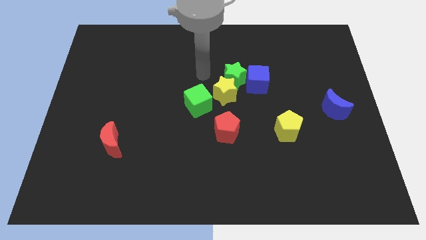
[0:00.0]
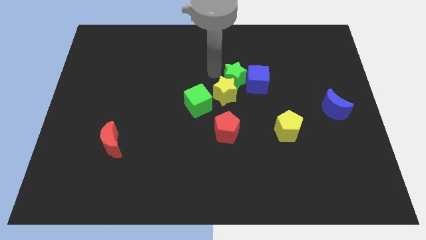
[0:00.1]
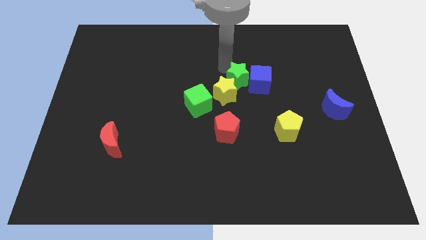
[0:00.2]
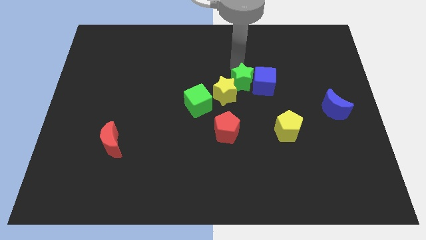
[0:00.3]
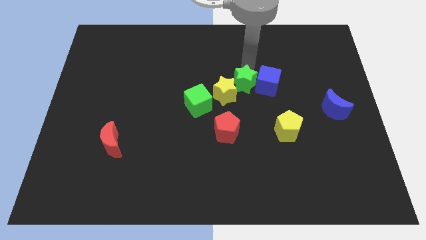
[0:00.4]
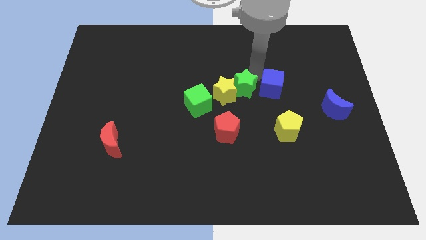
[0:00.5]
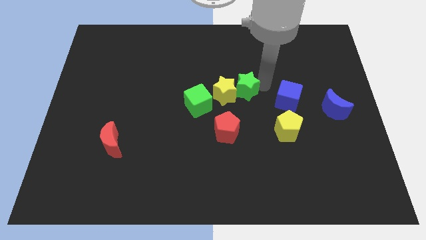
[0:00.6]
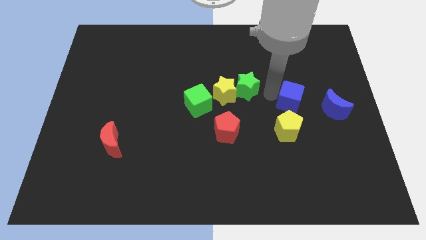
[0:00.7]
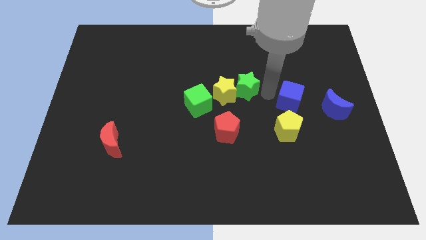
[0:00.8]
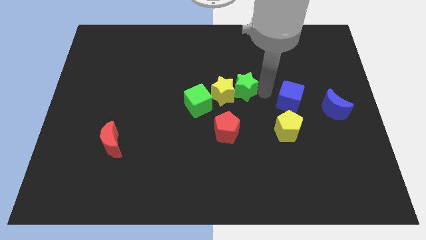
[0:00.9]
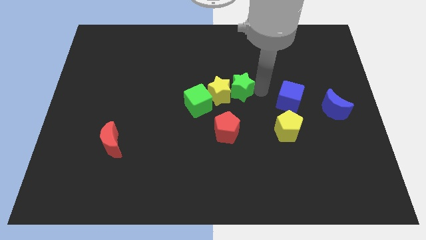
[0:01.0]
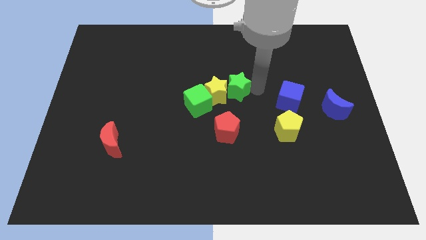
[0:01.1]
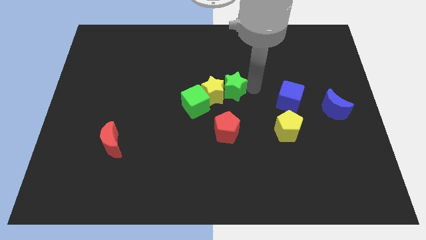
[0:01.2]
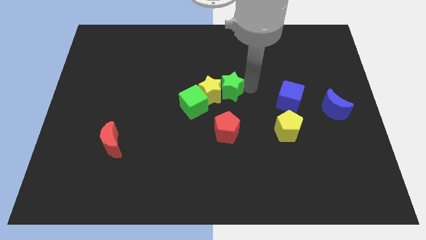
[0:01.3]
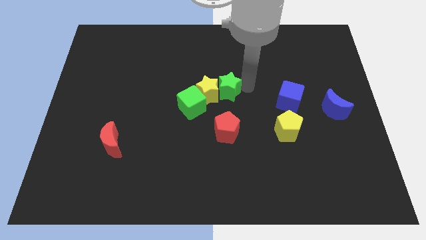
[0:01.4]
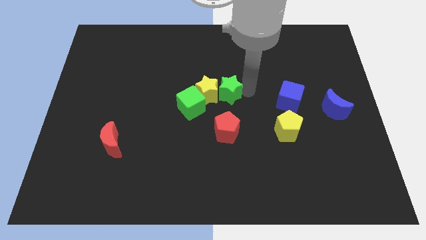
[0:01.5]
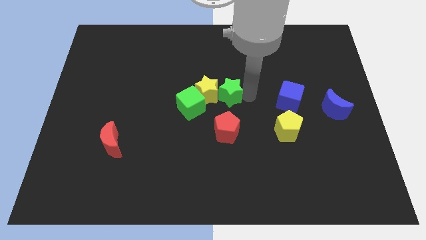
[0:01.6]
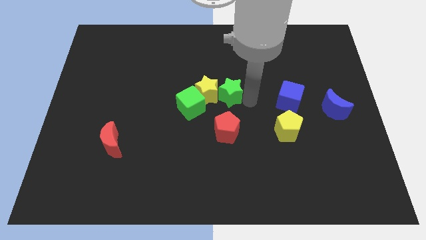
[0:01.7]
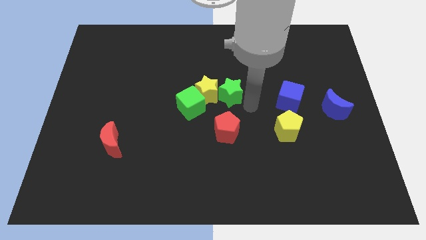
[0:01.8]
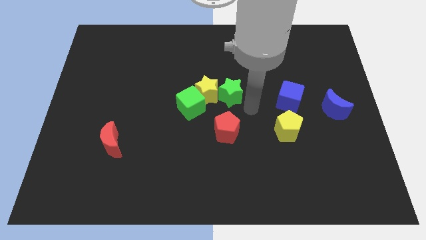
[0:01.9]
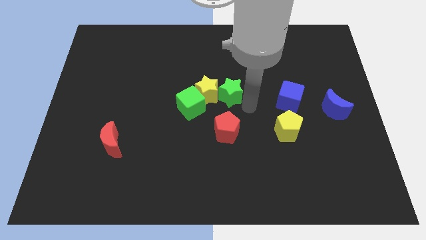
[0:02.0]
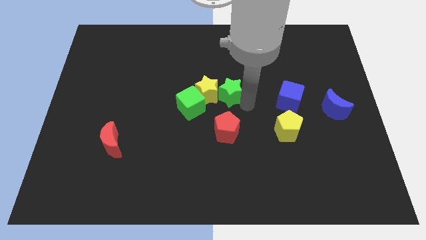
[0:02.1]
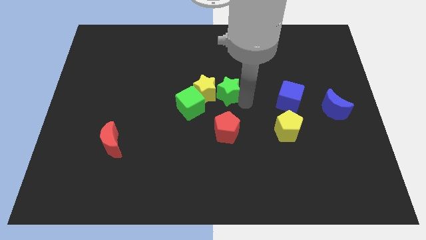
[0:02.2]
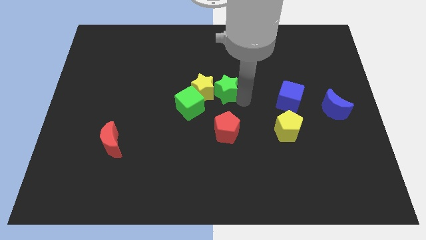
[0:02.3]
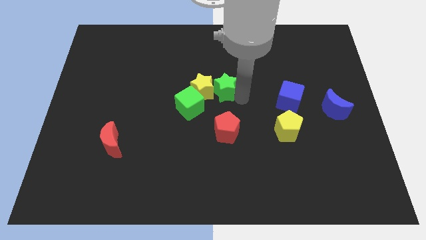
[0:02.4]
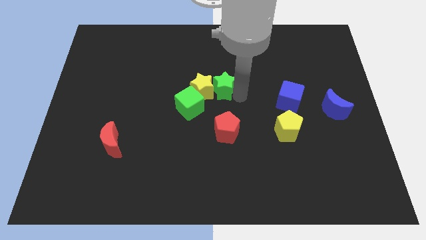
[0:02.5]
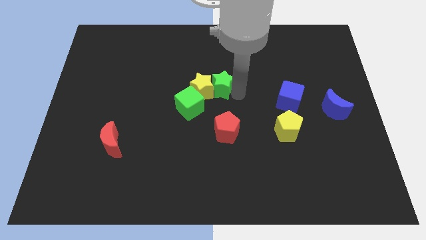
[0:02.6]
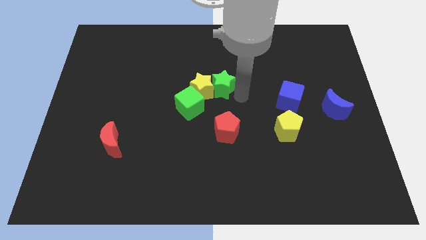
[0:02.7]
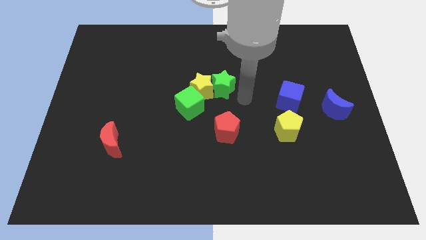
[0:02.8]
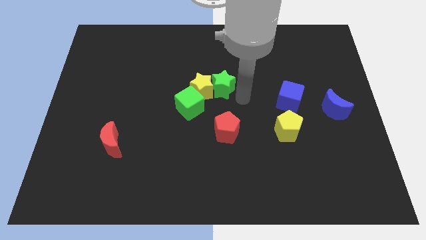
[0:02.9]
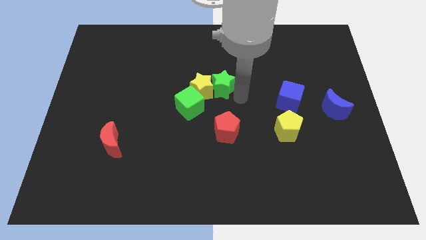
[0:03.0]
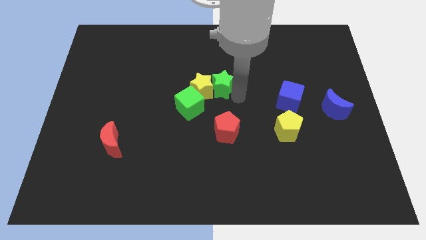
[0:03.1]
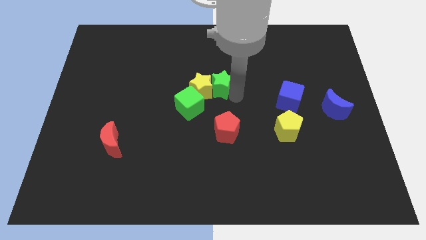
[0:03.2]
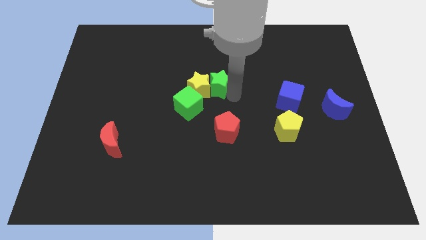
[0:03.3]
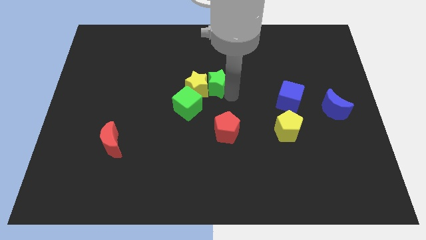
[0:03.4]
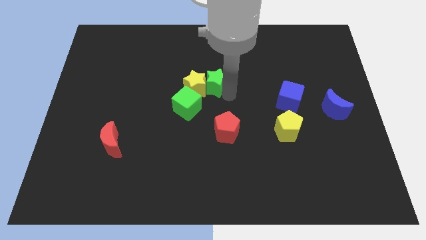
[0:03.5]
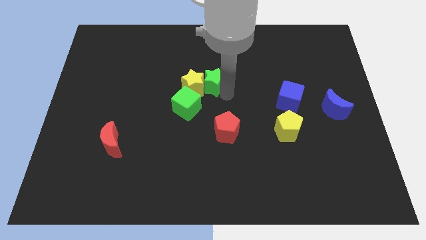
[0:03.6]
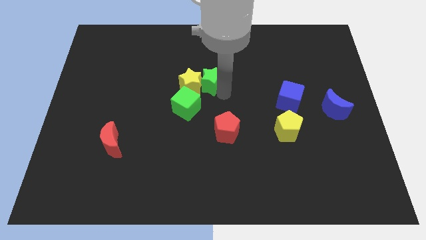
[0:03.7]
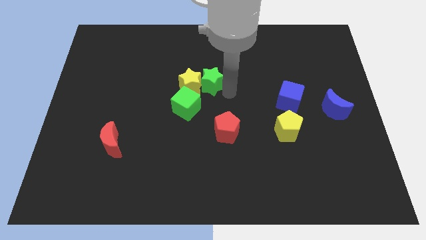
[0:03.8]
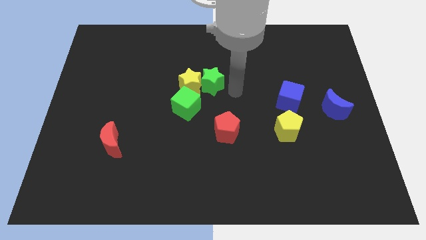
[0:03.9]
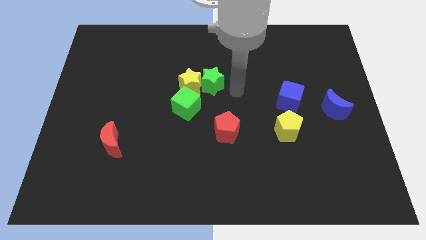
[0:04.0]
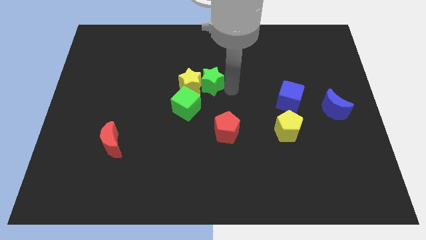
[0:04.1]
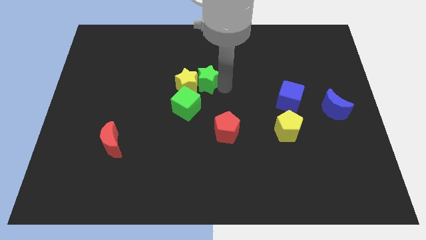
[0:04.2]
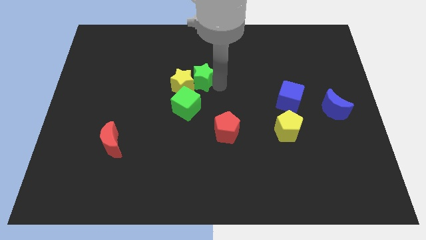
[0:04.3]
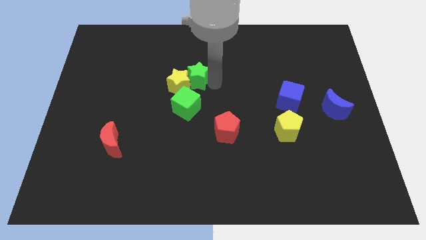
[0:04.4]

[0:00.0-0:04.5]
move the green star away from the yellow star and blue cube

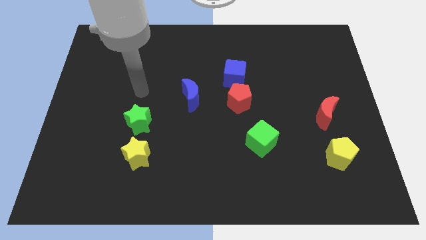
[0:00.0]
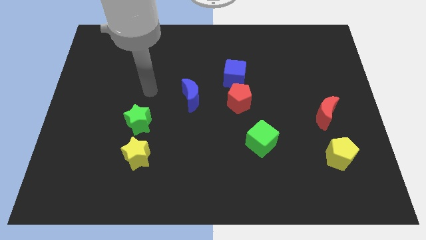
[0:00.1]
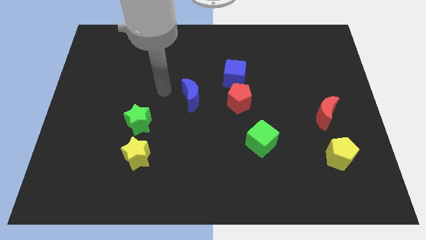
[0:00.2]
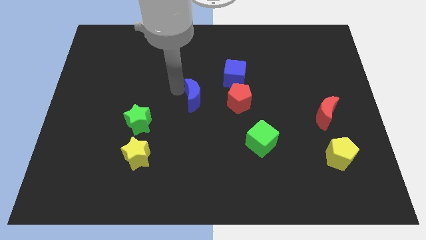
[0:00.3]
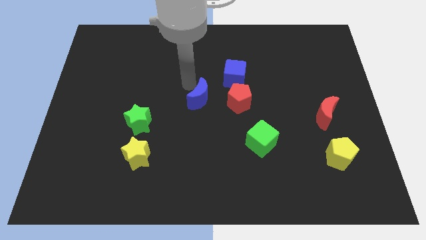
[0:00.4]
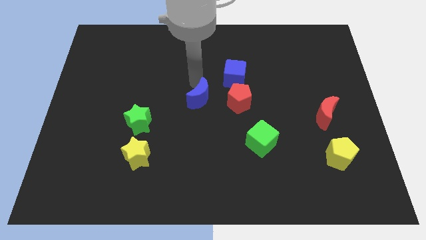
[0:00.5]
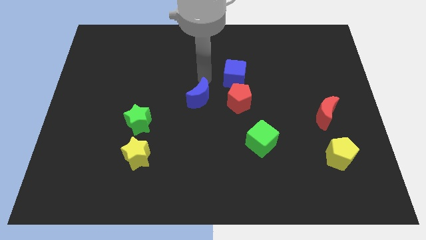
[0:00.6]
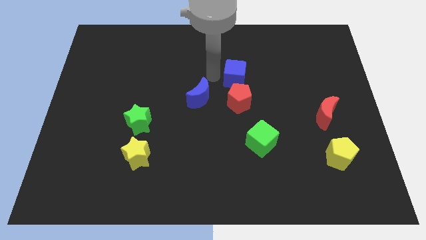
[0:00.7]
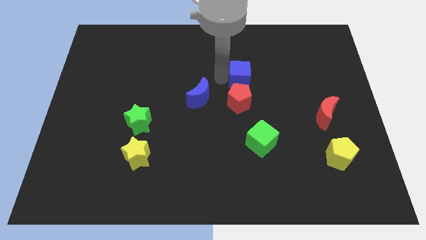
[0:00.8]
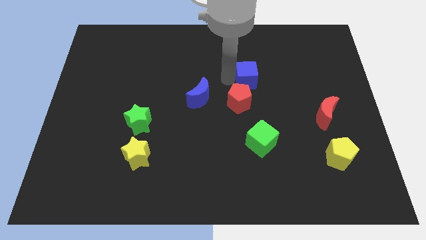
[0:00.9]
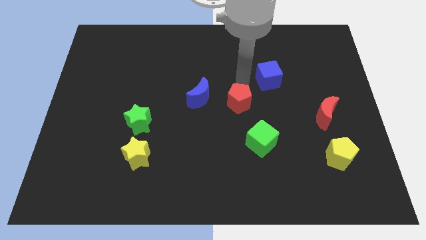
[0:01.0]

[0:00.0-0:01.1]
pull the red pentagon apart from the blue cube

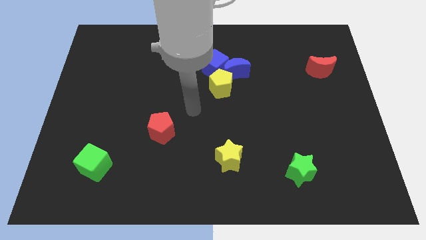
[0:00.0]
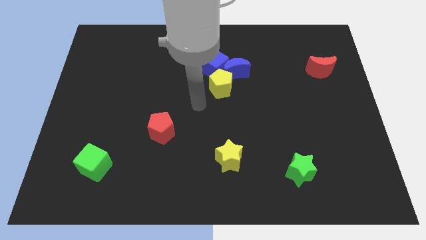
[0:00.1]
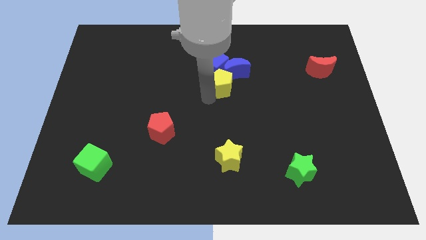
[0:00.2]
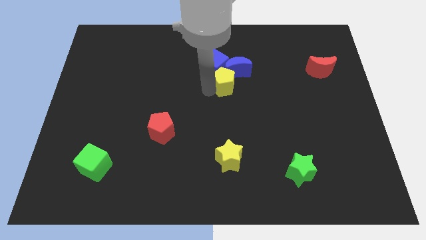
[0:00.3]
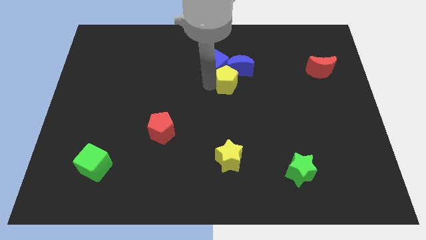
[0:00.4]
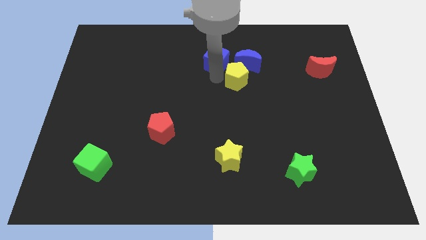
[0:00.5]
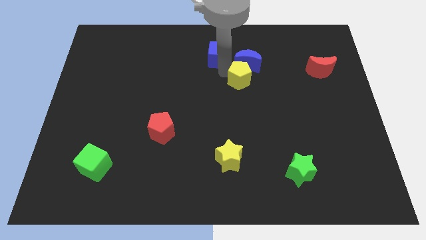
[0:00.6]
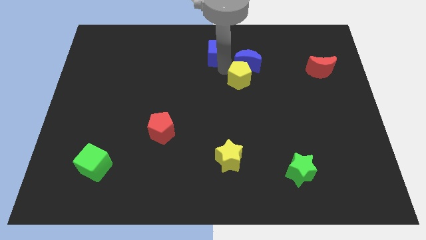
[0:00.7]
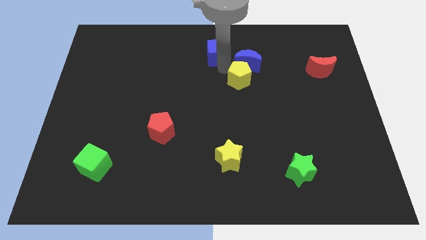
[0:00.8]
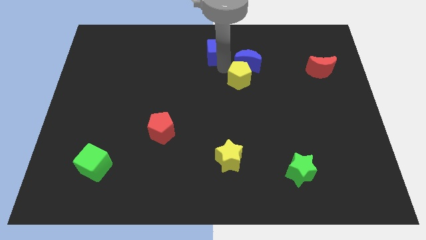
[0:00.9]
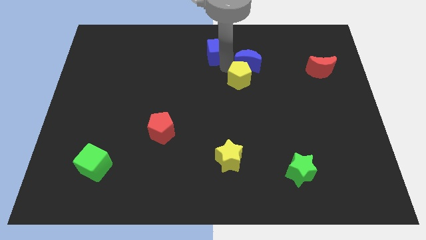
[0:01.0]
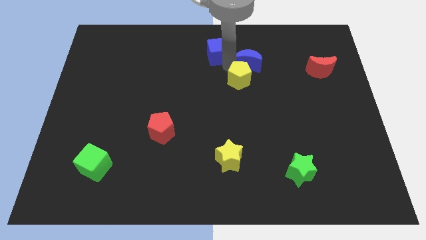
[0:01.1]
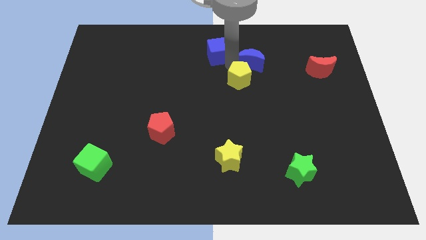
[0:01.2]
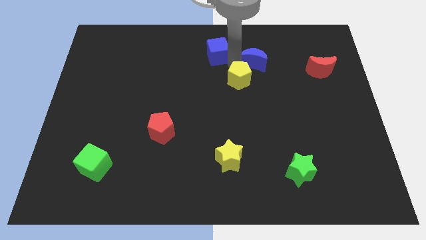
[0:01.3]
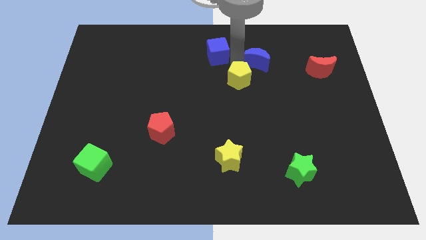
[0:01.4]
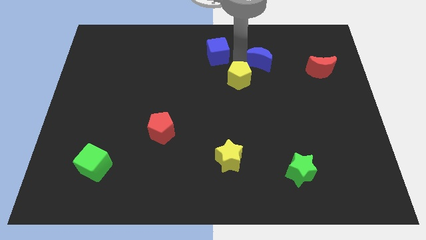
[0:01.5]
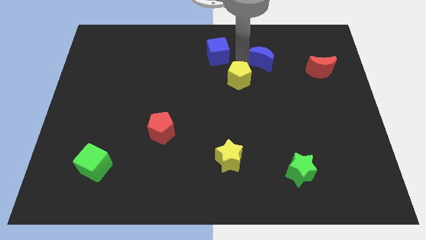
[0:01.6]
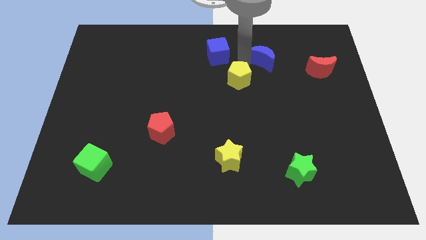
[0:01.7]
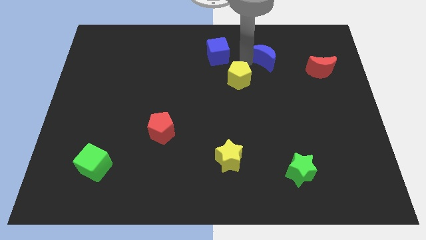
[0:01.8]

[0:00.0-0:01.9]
move the blue moon away from the blue cube and yellow pentagon

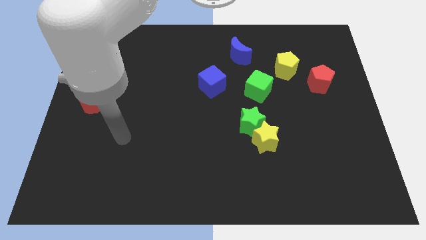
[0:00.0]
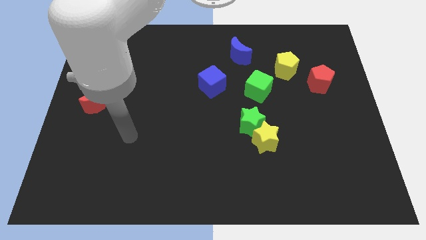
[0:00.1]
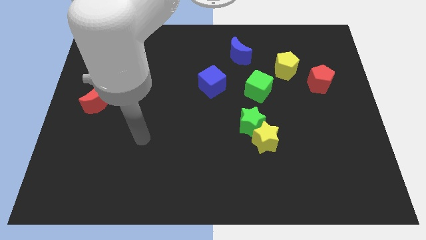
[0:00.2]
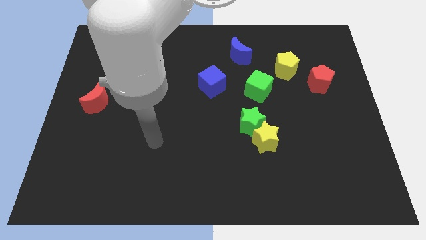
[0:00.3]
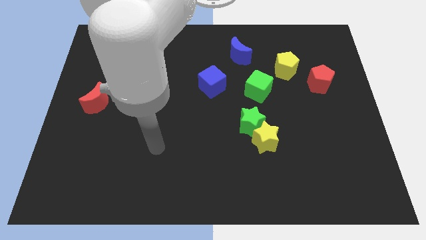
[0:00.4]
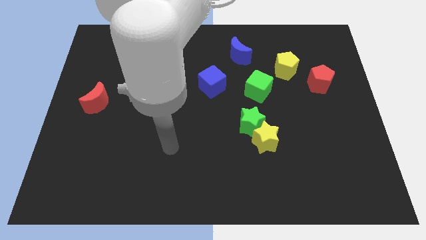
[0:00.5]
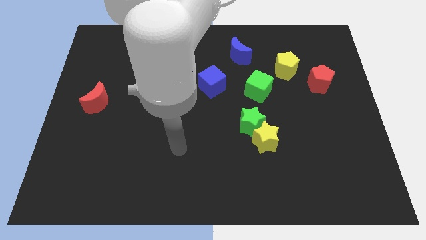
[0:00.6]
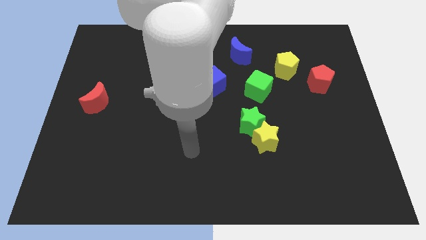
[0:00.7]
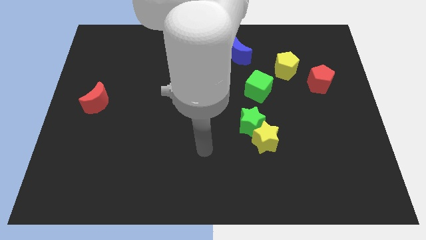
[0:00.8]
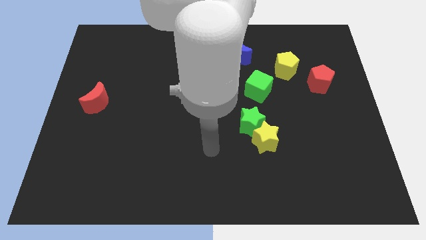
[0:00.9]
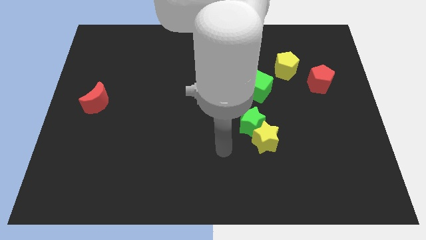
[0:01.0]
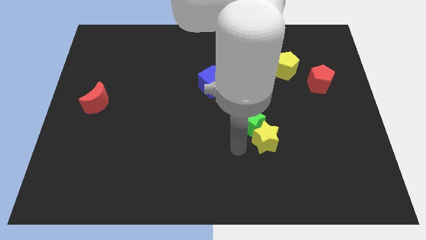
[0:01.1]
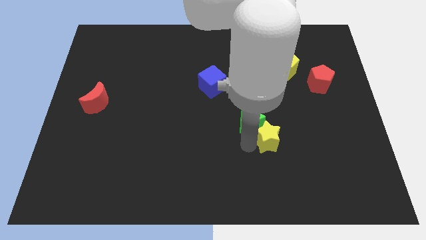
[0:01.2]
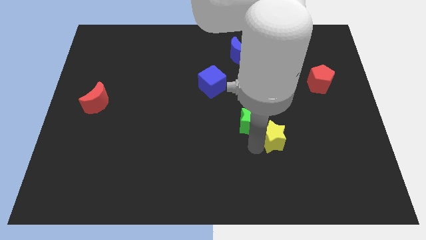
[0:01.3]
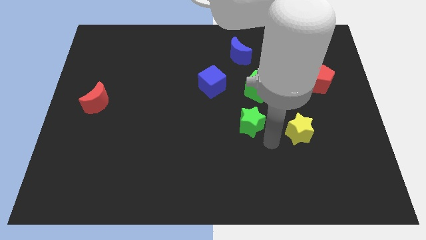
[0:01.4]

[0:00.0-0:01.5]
separate the green star from the yellow star

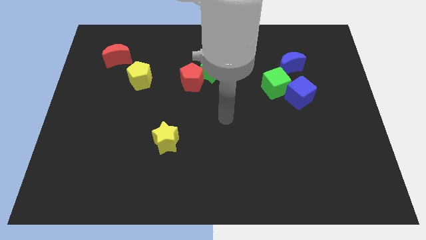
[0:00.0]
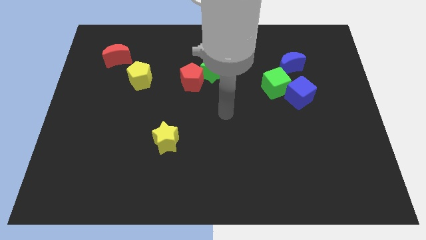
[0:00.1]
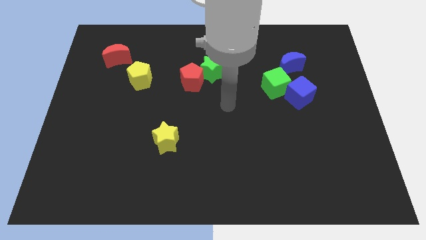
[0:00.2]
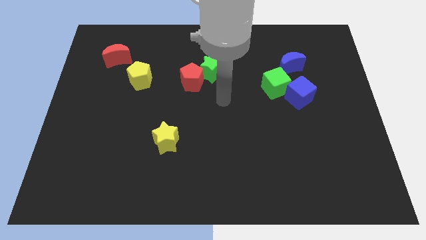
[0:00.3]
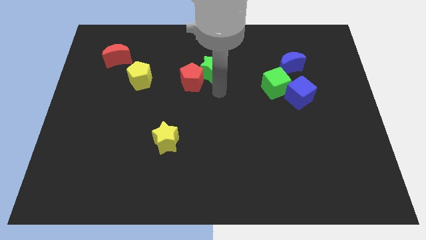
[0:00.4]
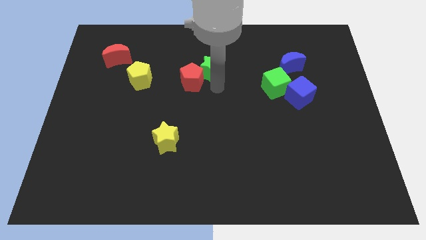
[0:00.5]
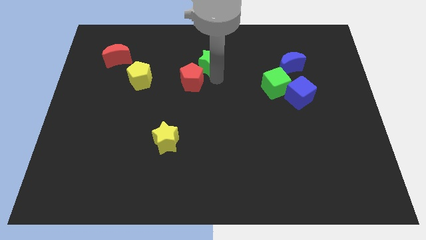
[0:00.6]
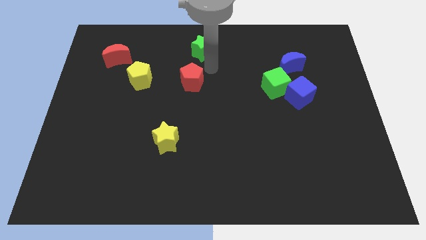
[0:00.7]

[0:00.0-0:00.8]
pull the red pentagon apart from the green star
